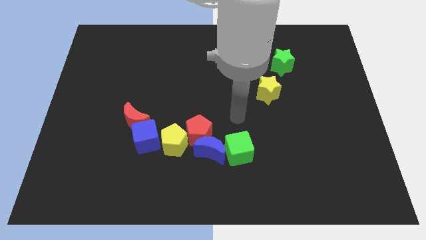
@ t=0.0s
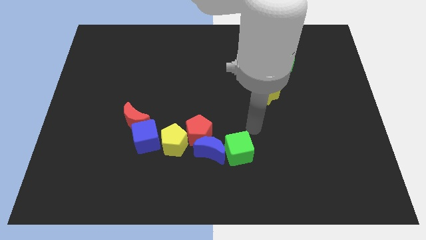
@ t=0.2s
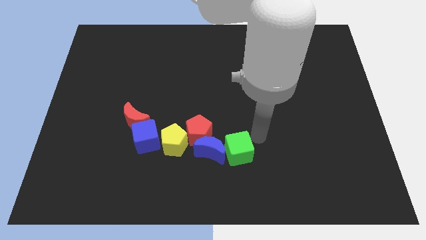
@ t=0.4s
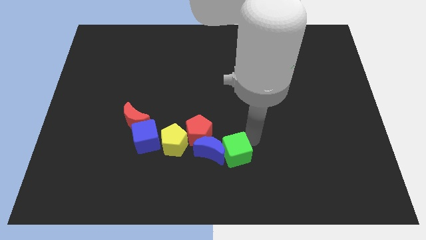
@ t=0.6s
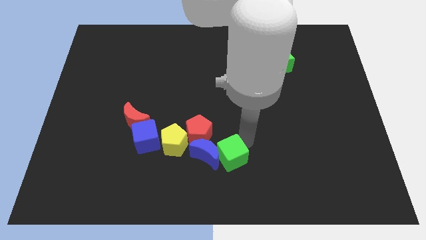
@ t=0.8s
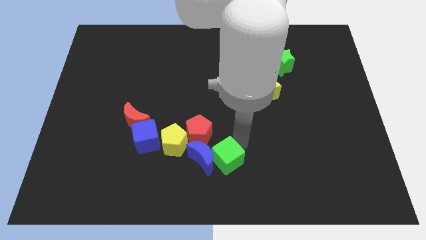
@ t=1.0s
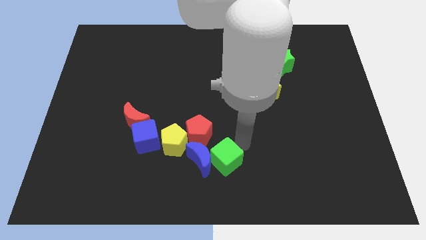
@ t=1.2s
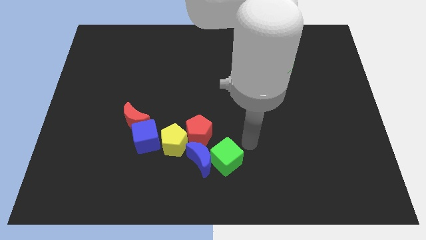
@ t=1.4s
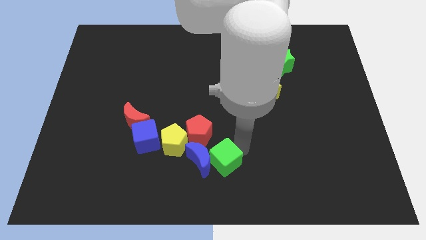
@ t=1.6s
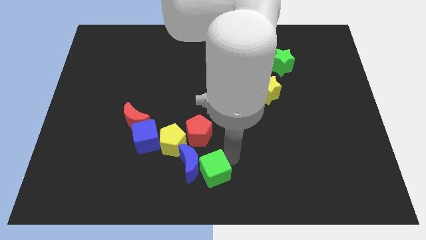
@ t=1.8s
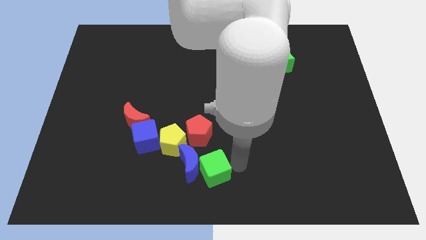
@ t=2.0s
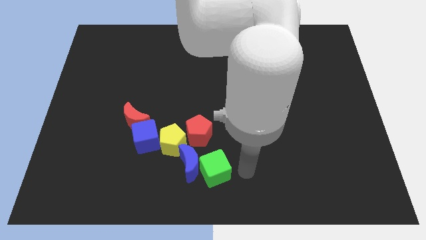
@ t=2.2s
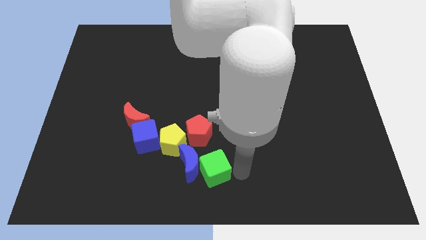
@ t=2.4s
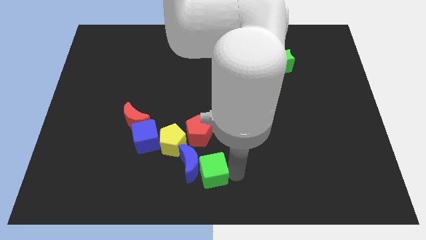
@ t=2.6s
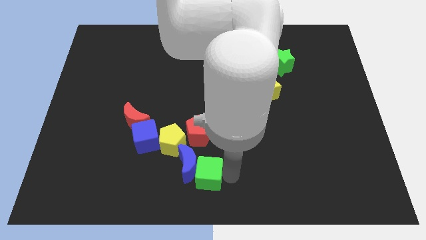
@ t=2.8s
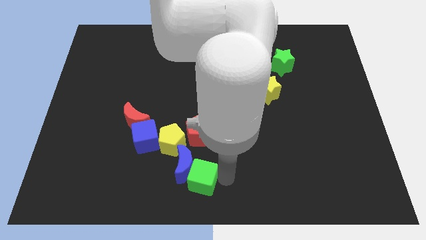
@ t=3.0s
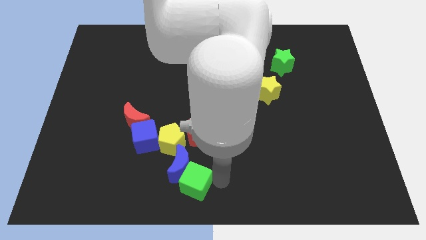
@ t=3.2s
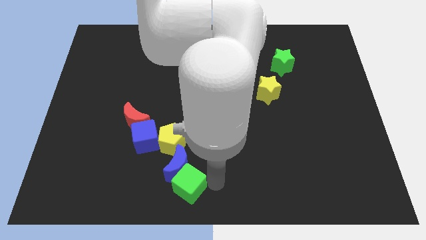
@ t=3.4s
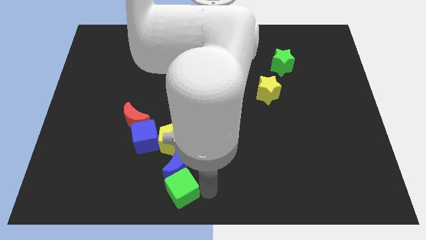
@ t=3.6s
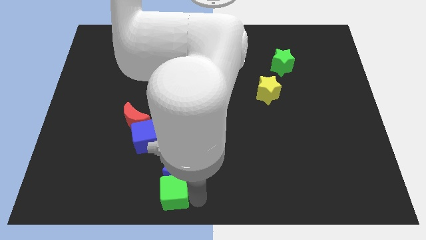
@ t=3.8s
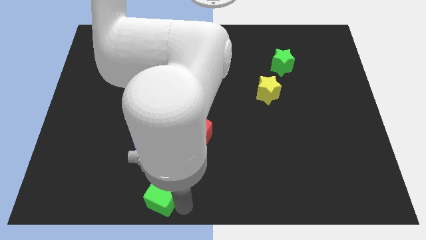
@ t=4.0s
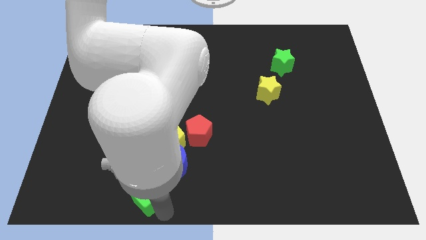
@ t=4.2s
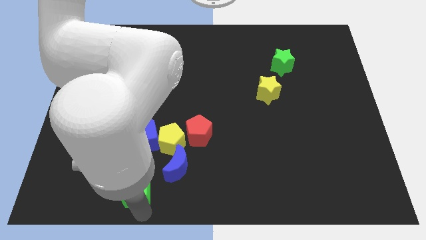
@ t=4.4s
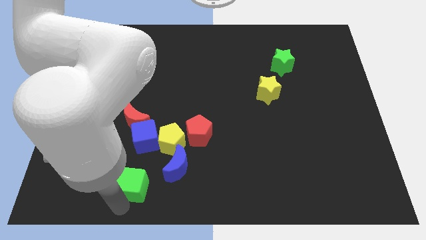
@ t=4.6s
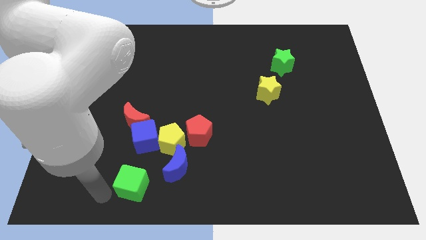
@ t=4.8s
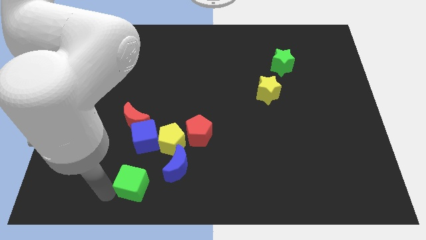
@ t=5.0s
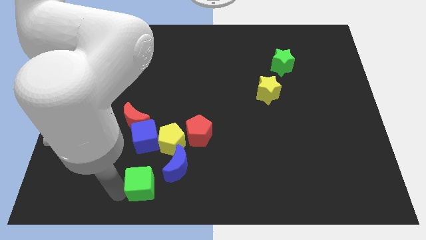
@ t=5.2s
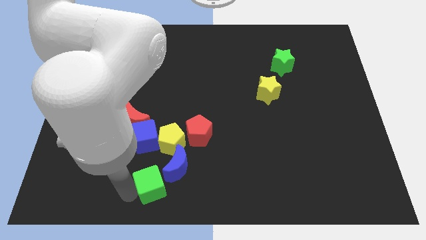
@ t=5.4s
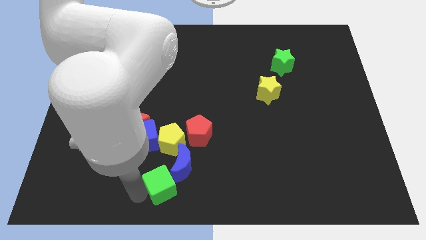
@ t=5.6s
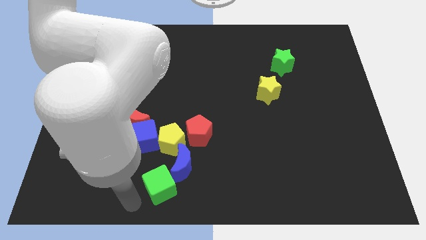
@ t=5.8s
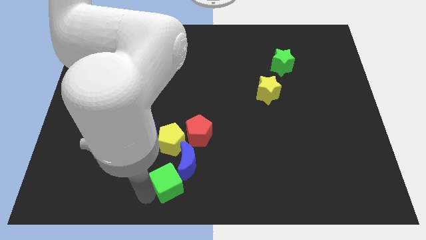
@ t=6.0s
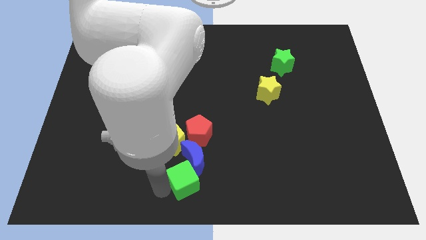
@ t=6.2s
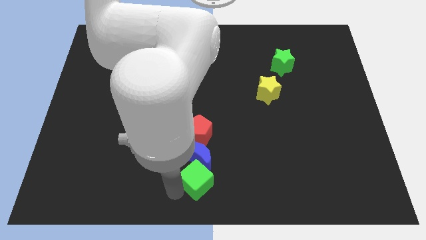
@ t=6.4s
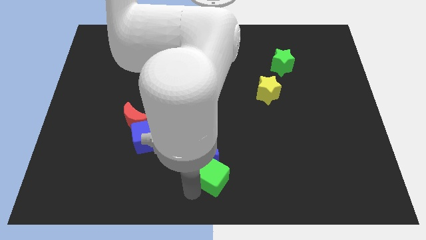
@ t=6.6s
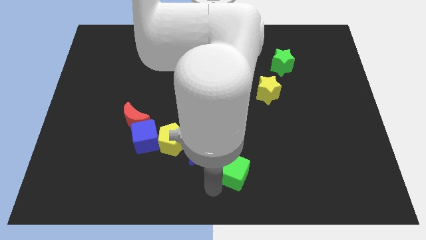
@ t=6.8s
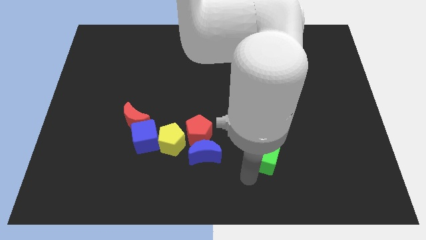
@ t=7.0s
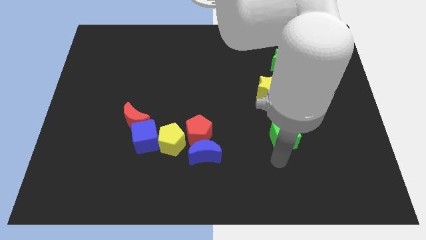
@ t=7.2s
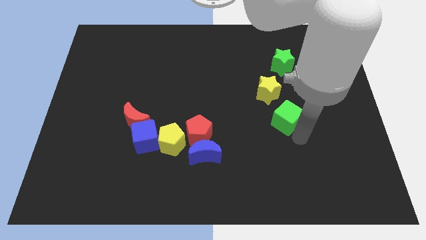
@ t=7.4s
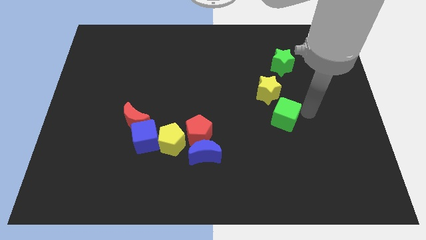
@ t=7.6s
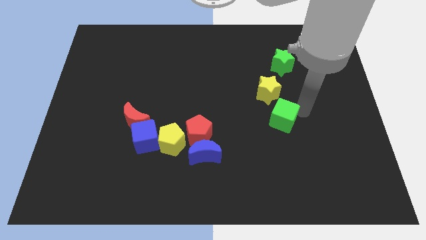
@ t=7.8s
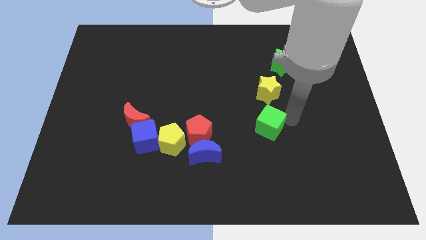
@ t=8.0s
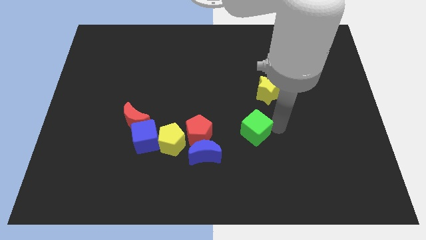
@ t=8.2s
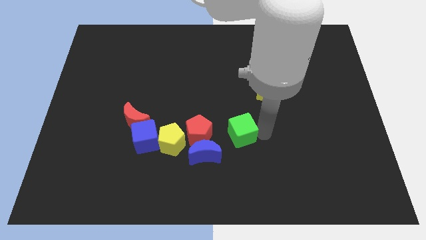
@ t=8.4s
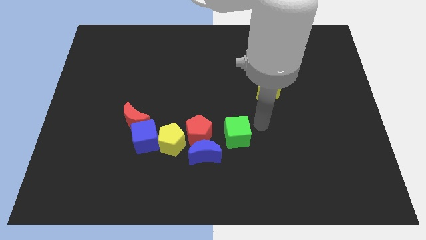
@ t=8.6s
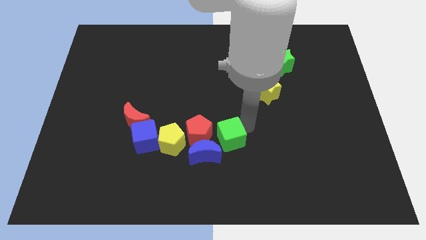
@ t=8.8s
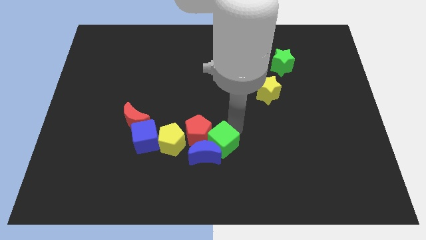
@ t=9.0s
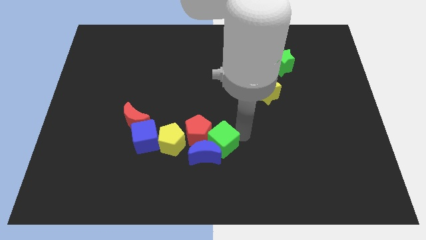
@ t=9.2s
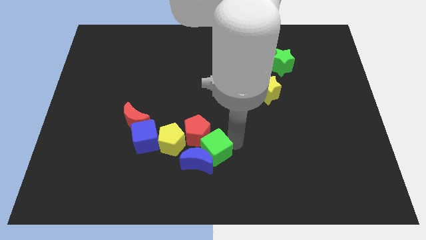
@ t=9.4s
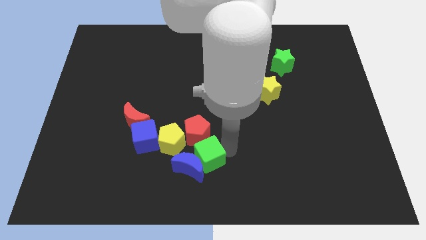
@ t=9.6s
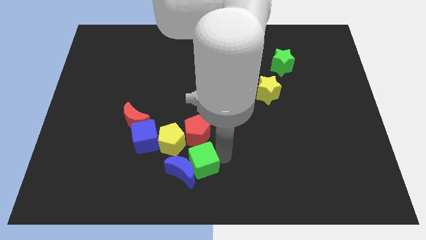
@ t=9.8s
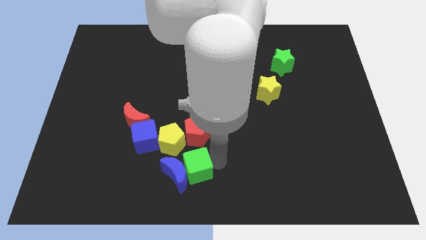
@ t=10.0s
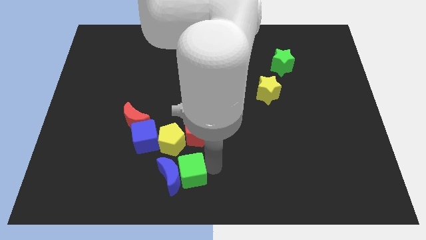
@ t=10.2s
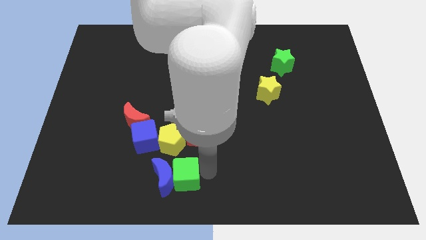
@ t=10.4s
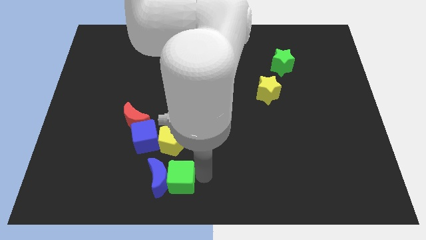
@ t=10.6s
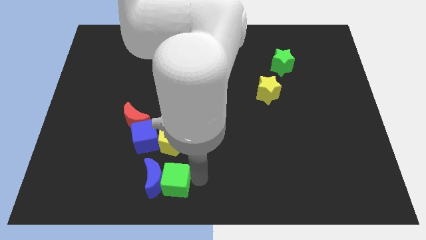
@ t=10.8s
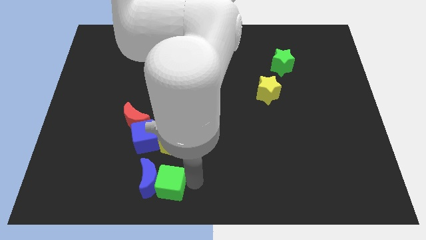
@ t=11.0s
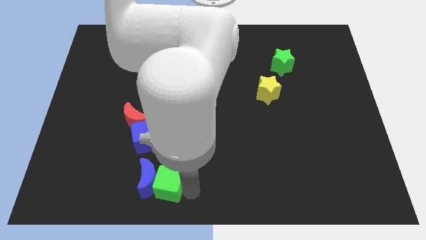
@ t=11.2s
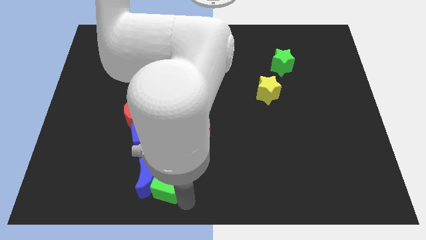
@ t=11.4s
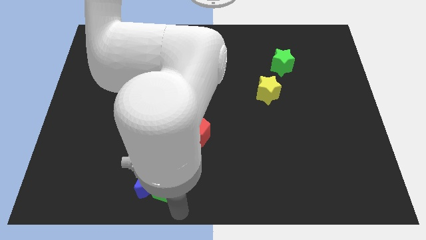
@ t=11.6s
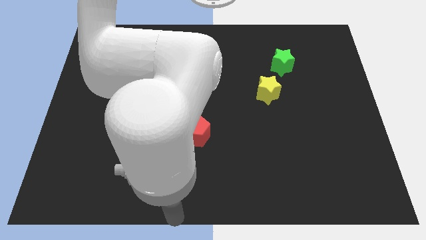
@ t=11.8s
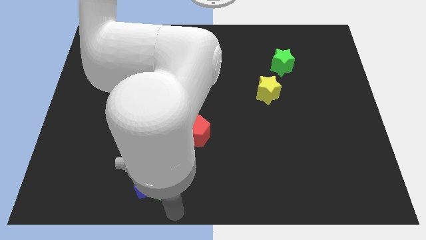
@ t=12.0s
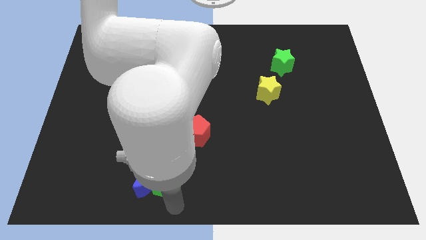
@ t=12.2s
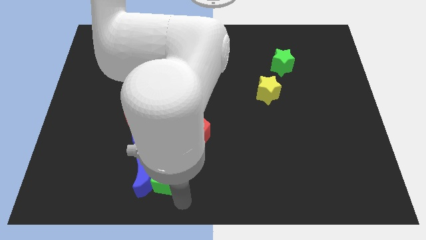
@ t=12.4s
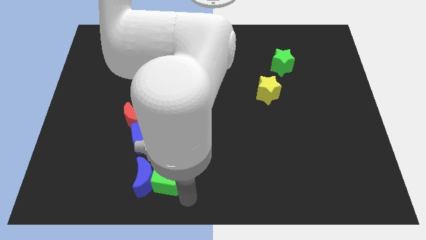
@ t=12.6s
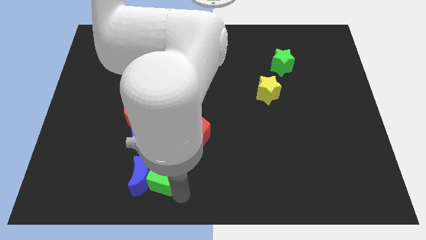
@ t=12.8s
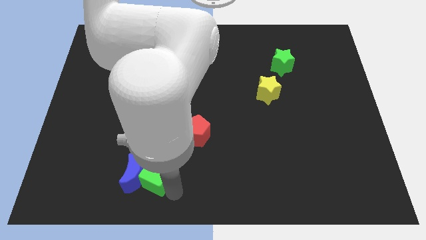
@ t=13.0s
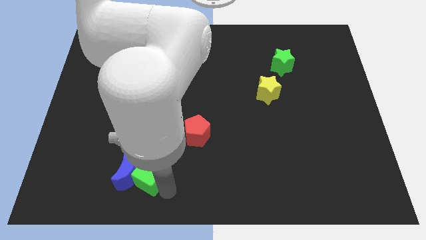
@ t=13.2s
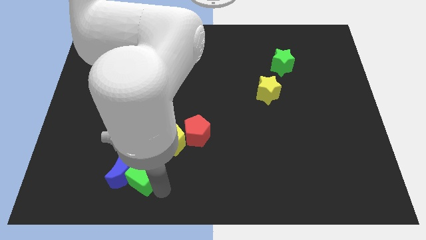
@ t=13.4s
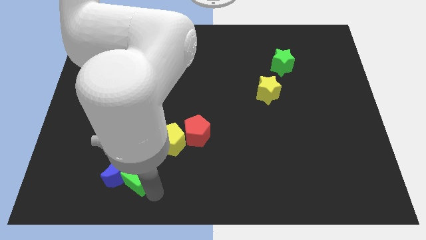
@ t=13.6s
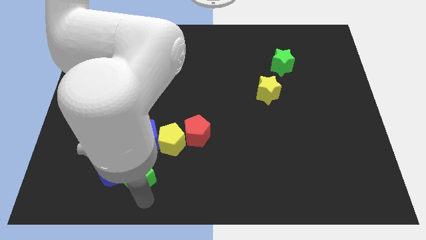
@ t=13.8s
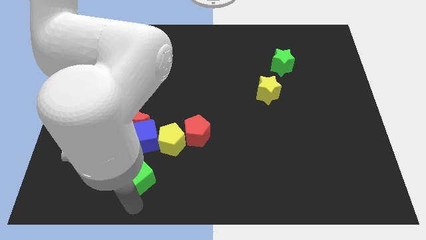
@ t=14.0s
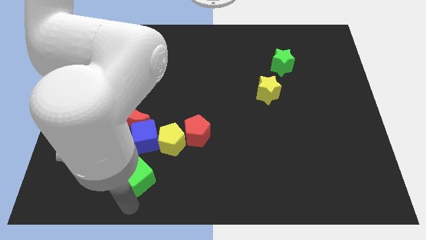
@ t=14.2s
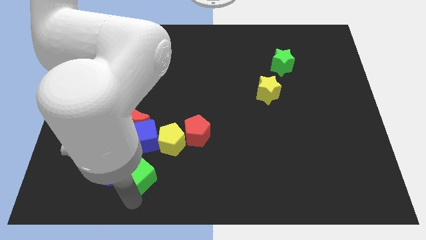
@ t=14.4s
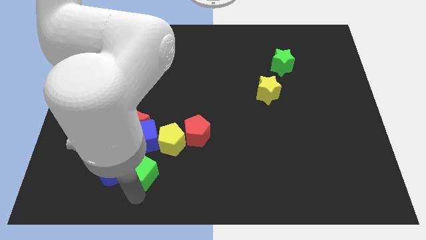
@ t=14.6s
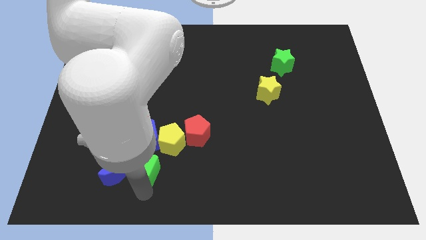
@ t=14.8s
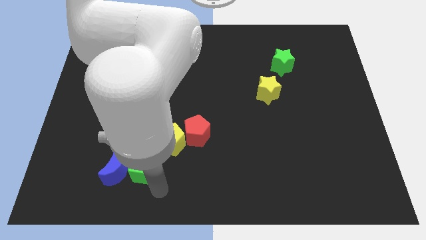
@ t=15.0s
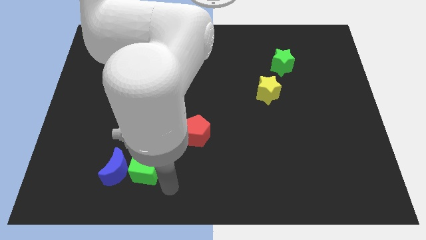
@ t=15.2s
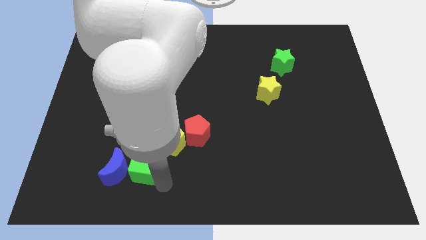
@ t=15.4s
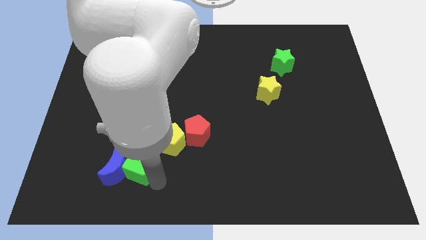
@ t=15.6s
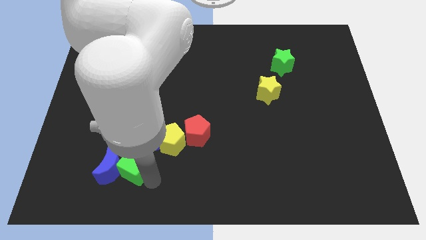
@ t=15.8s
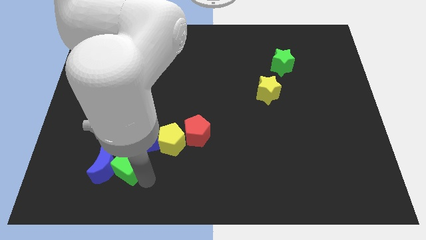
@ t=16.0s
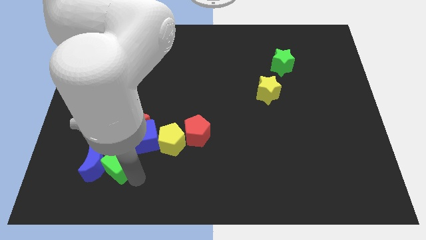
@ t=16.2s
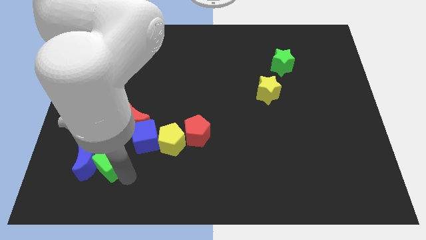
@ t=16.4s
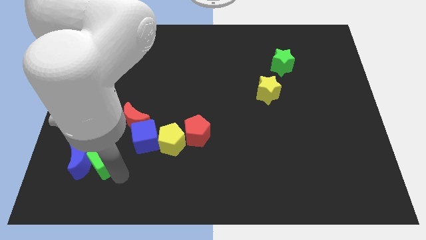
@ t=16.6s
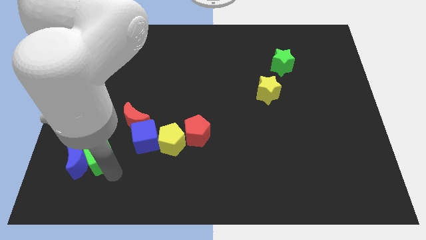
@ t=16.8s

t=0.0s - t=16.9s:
put the green cube to the left side of the blue cube
